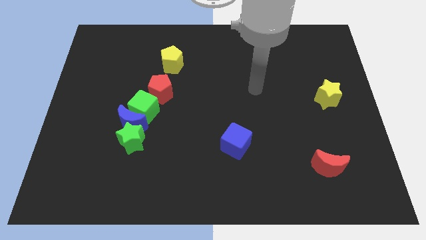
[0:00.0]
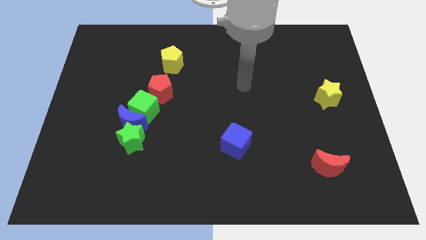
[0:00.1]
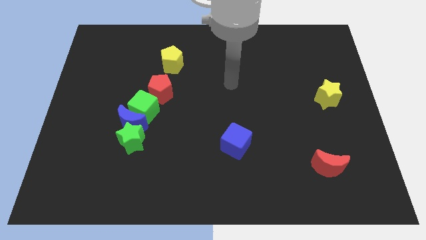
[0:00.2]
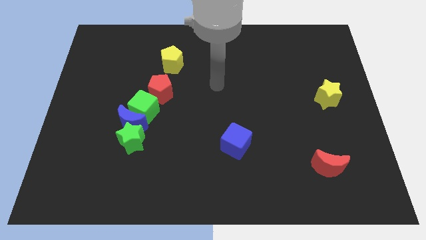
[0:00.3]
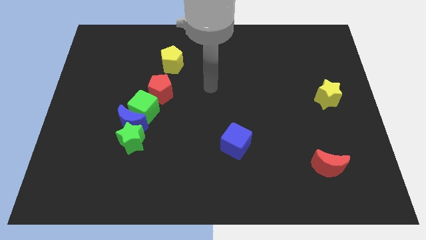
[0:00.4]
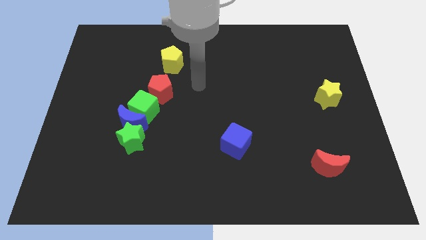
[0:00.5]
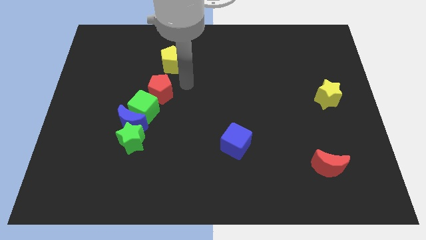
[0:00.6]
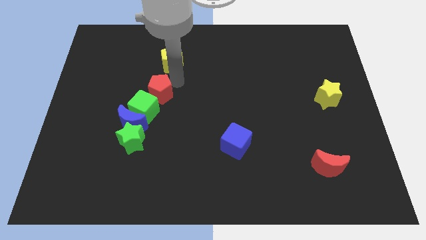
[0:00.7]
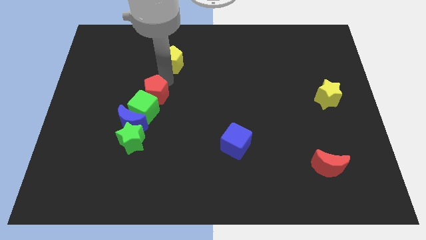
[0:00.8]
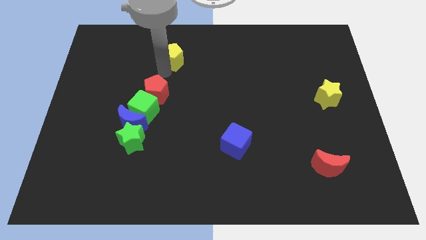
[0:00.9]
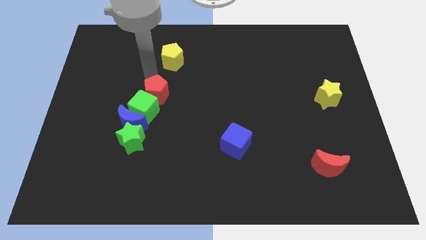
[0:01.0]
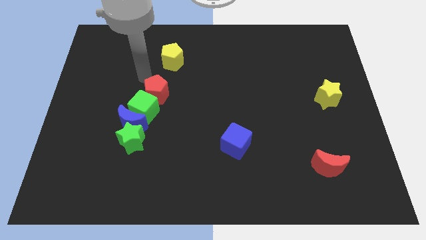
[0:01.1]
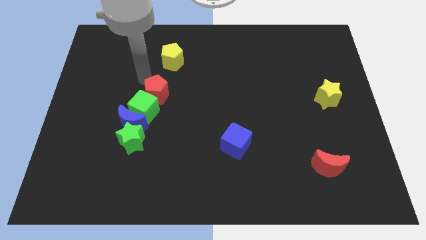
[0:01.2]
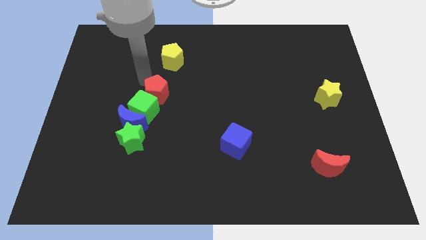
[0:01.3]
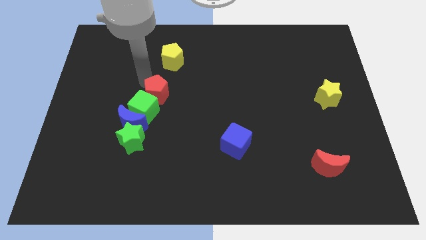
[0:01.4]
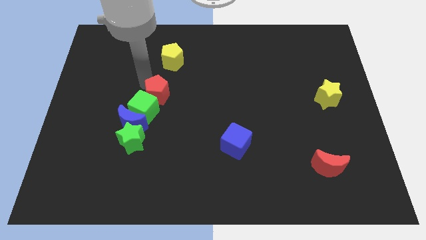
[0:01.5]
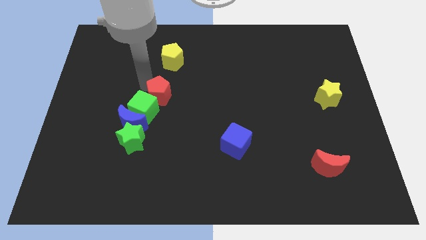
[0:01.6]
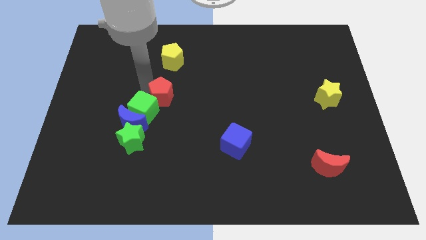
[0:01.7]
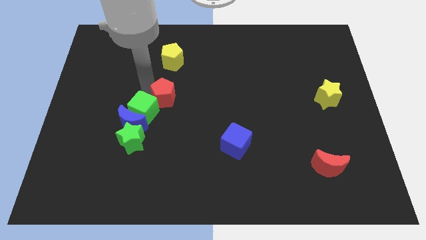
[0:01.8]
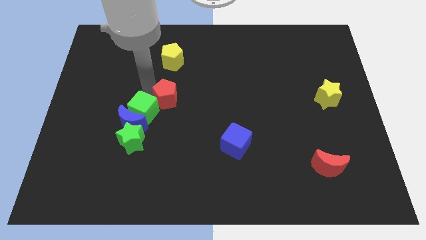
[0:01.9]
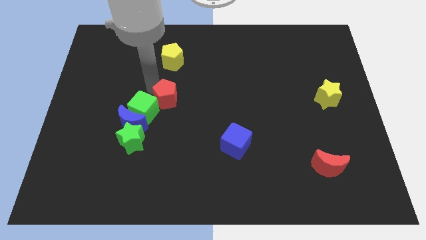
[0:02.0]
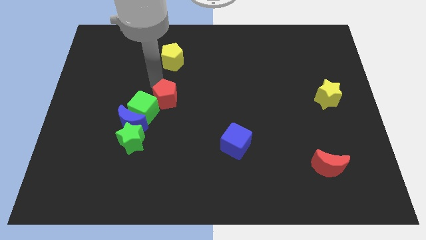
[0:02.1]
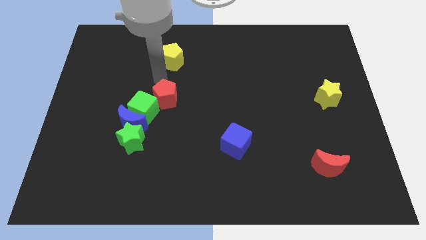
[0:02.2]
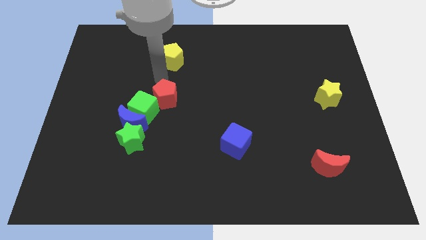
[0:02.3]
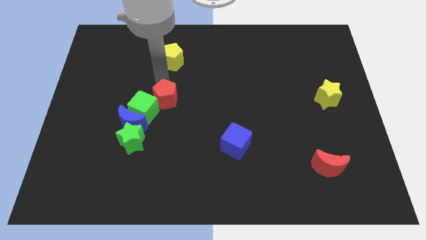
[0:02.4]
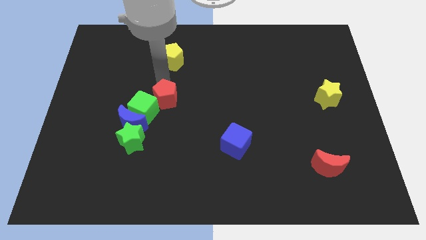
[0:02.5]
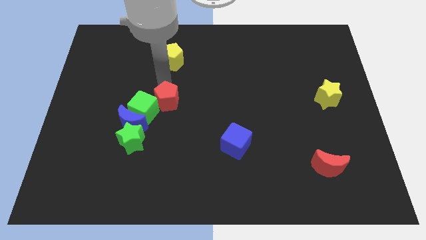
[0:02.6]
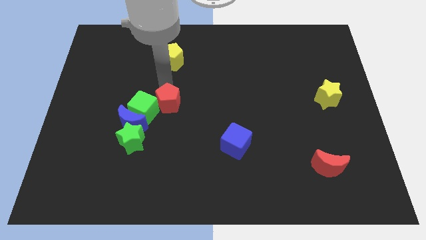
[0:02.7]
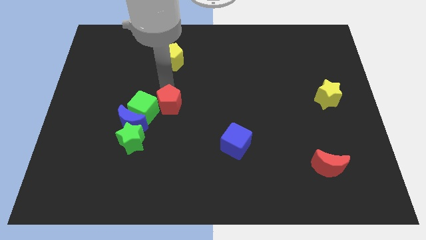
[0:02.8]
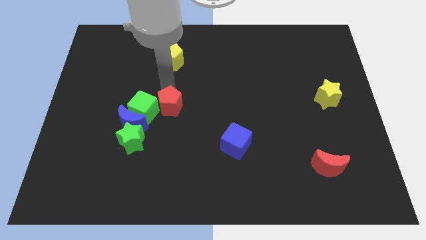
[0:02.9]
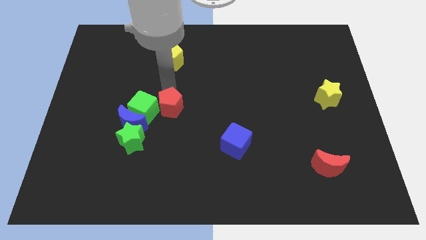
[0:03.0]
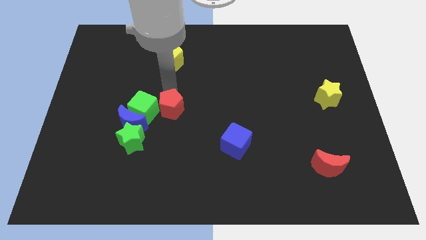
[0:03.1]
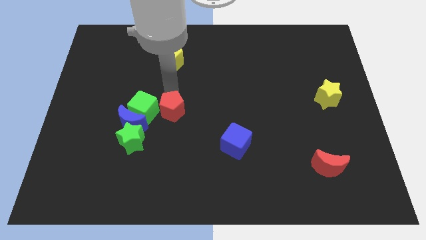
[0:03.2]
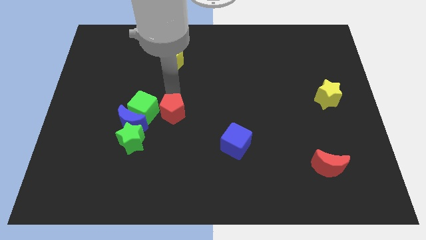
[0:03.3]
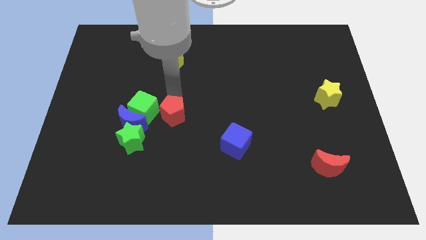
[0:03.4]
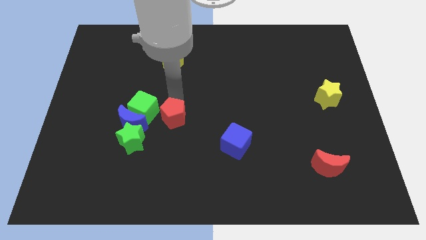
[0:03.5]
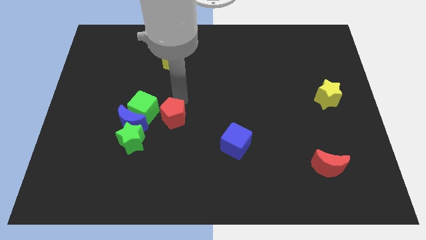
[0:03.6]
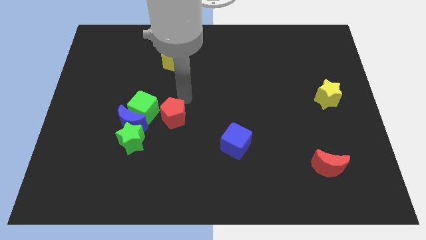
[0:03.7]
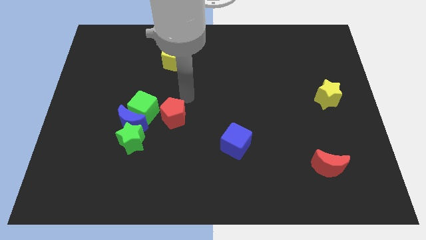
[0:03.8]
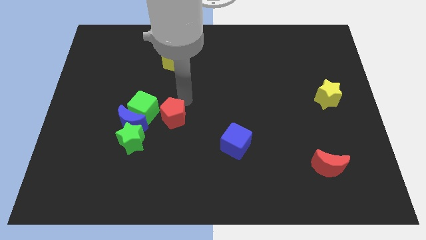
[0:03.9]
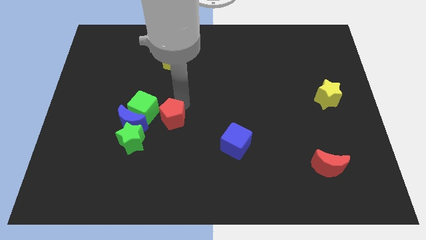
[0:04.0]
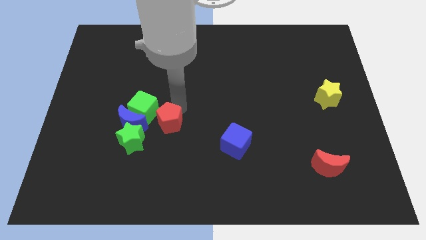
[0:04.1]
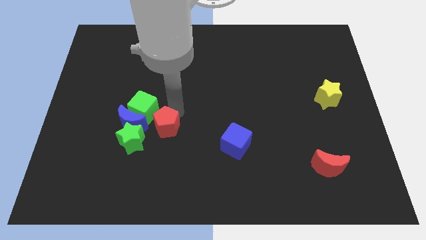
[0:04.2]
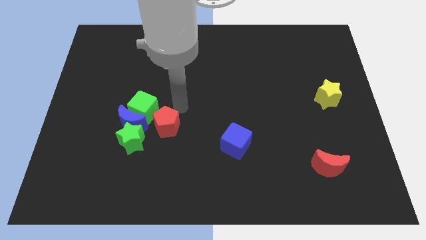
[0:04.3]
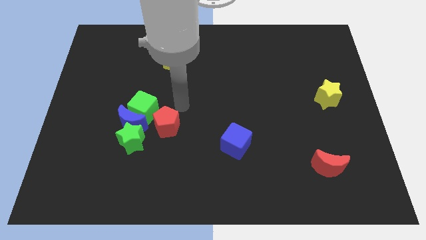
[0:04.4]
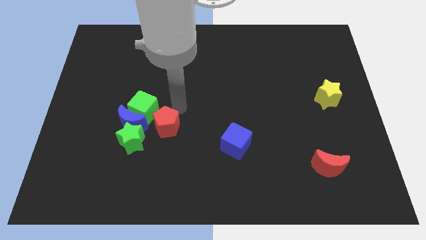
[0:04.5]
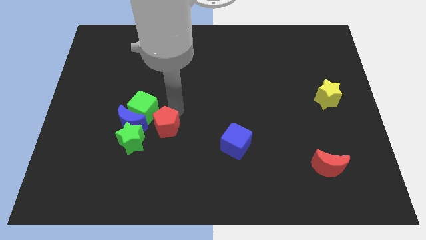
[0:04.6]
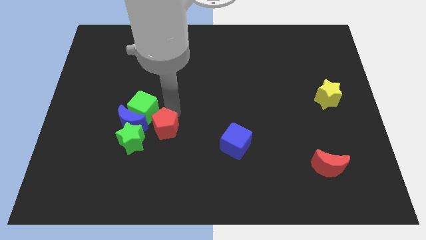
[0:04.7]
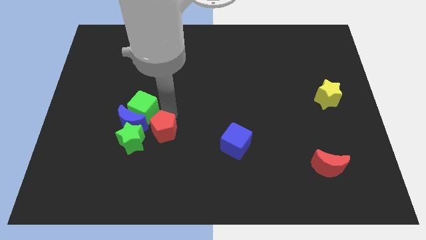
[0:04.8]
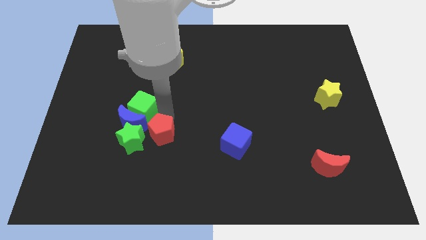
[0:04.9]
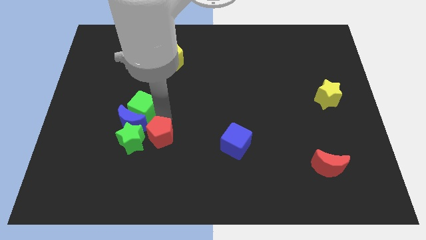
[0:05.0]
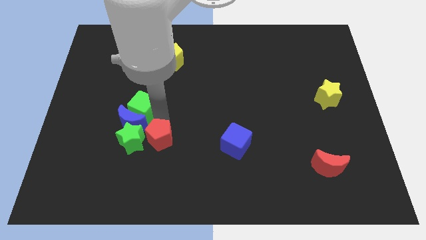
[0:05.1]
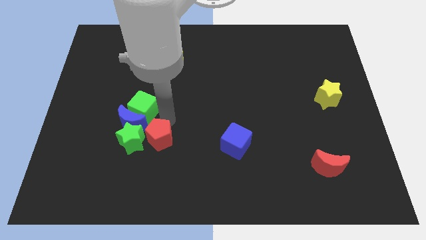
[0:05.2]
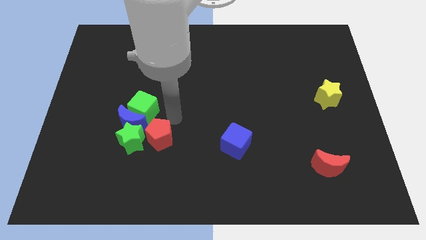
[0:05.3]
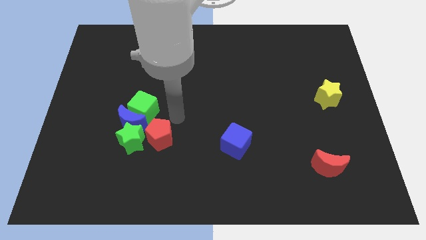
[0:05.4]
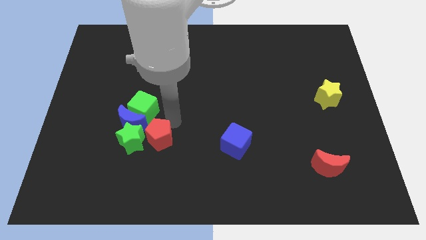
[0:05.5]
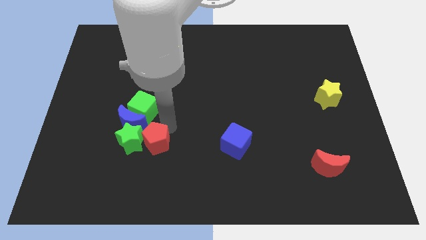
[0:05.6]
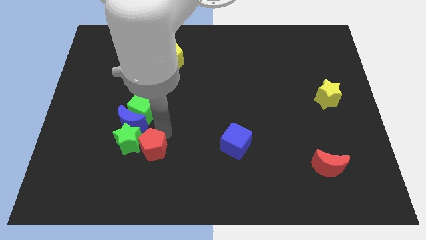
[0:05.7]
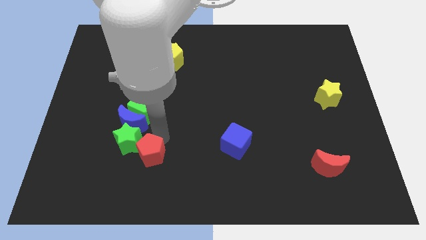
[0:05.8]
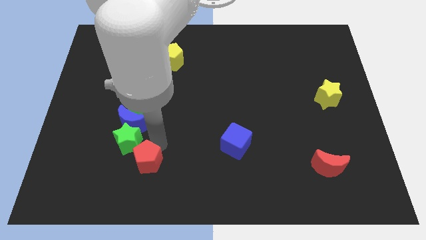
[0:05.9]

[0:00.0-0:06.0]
push the red pentagon to the bottom of the blue moon

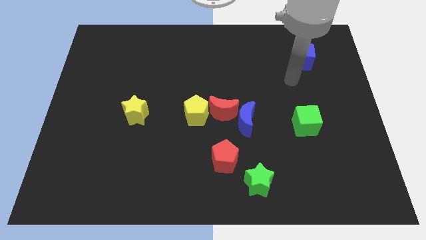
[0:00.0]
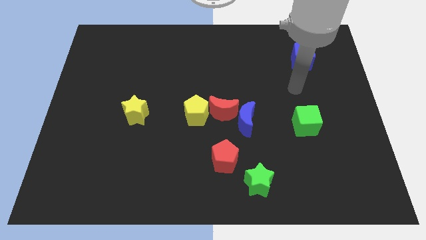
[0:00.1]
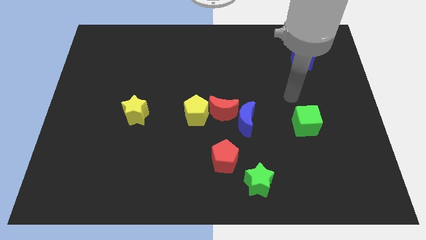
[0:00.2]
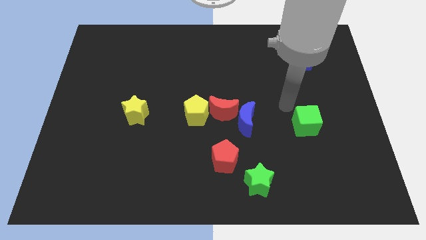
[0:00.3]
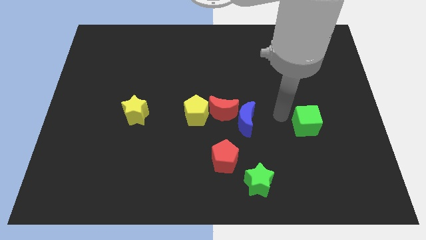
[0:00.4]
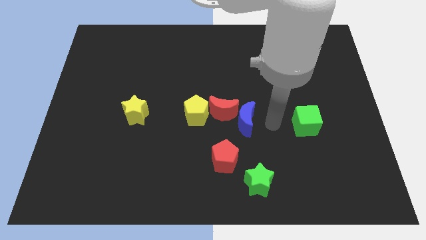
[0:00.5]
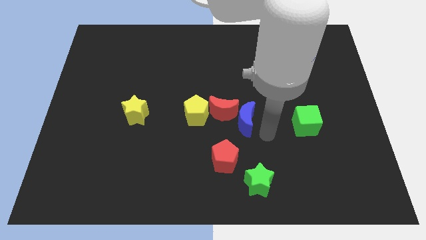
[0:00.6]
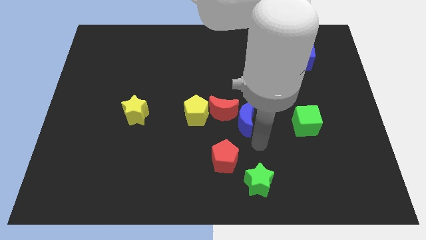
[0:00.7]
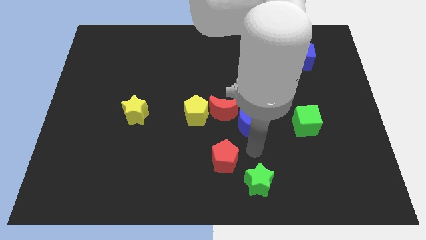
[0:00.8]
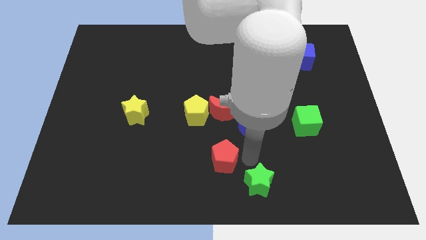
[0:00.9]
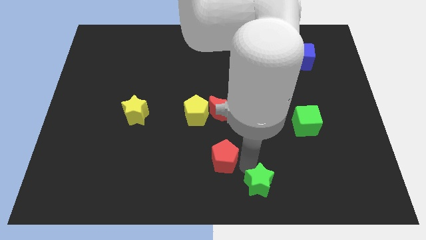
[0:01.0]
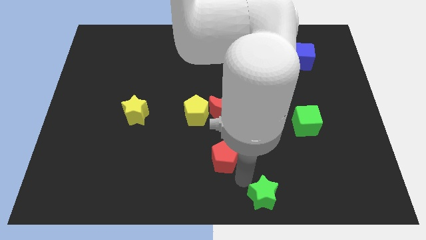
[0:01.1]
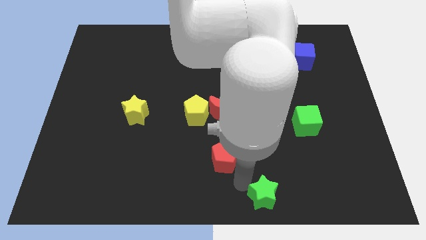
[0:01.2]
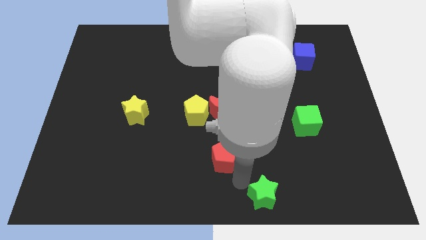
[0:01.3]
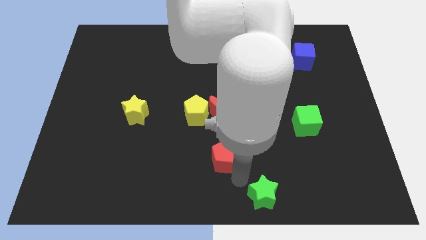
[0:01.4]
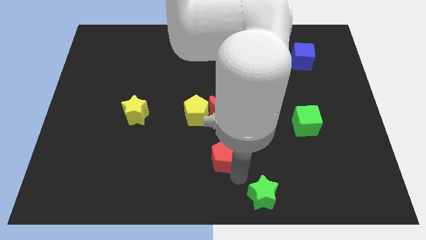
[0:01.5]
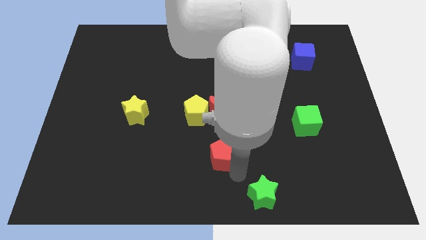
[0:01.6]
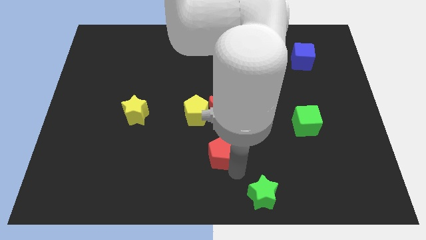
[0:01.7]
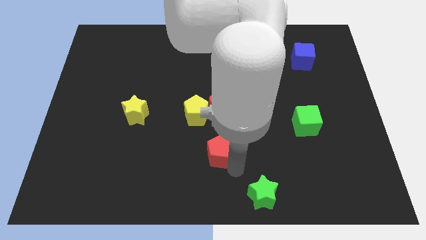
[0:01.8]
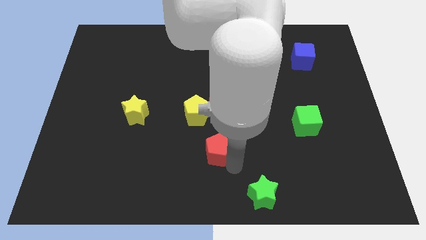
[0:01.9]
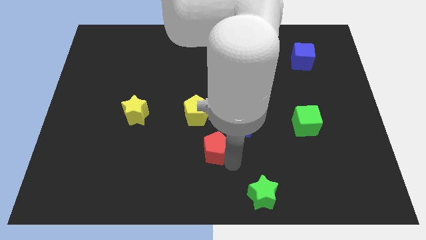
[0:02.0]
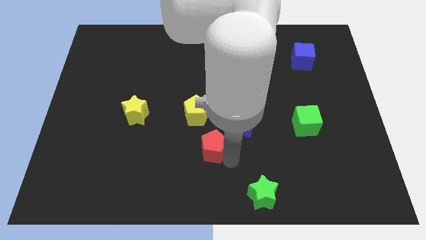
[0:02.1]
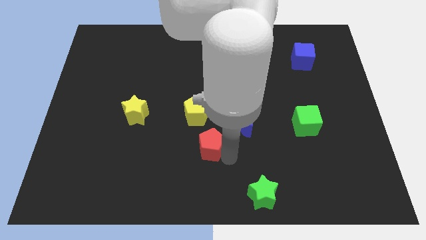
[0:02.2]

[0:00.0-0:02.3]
push the red pentagon diagonally down and to the left of the red moon
